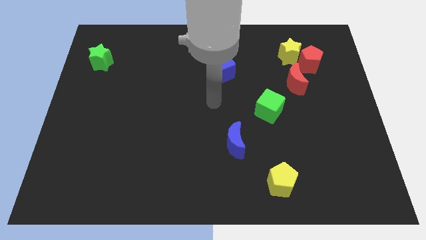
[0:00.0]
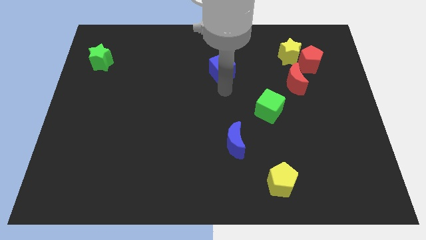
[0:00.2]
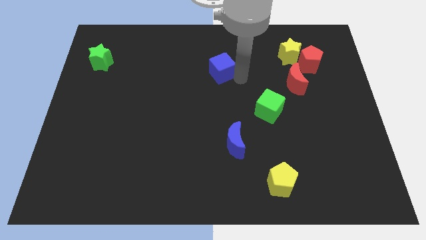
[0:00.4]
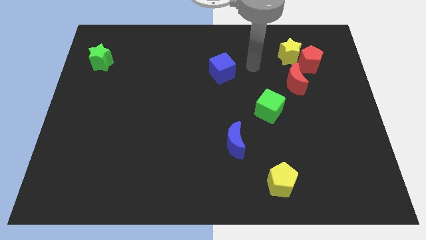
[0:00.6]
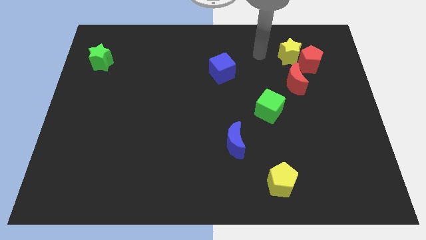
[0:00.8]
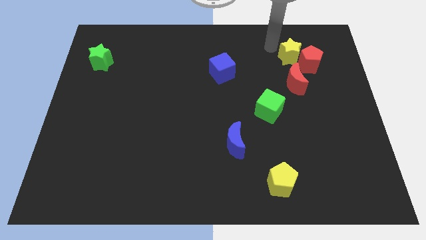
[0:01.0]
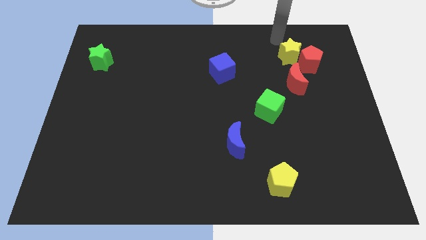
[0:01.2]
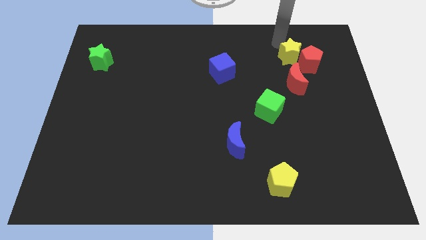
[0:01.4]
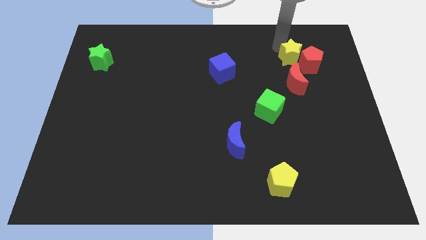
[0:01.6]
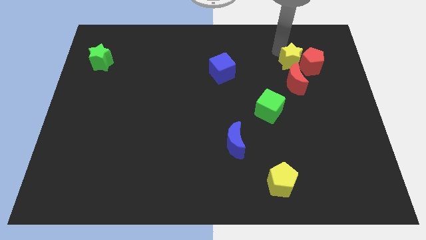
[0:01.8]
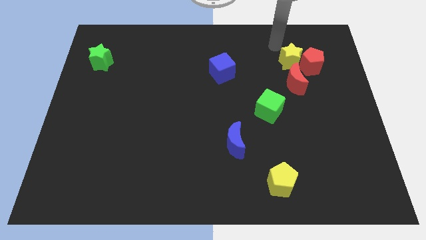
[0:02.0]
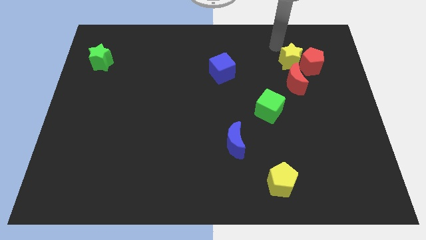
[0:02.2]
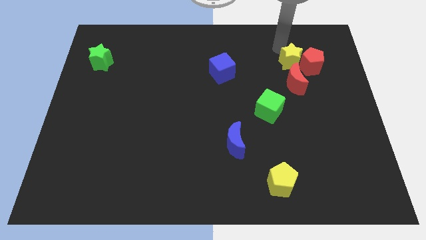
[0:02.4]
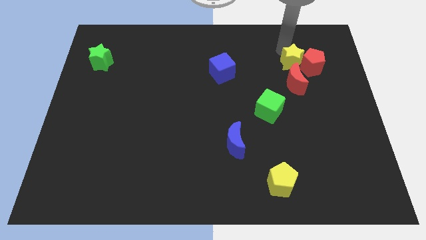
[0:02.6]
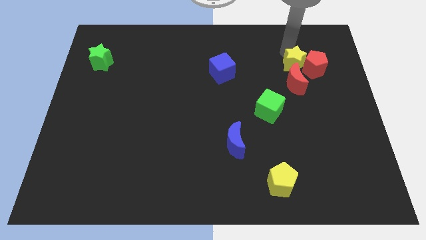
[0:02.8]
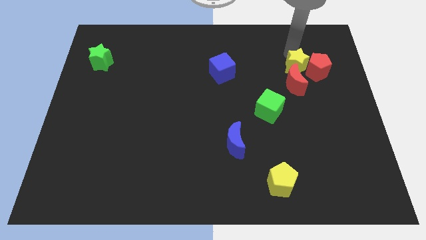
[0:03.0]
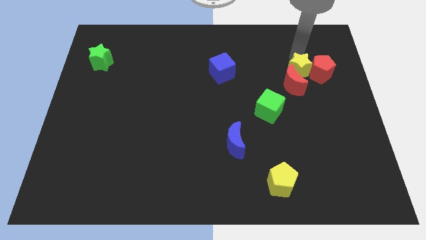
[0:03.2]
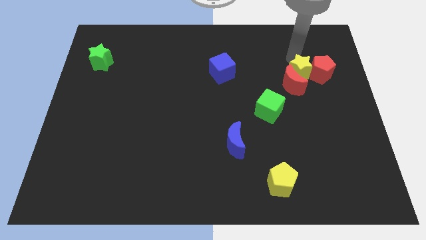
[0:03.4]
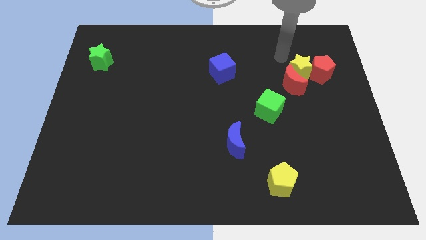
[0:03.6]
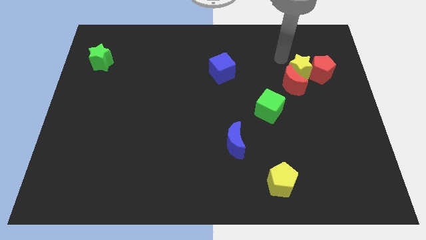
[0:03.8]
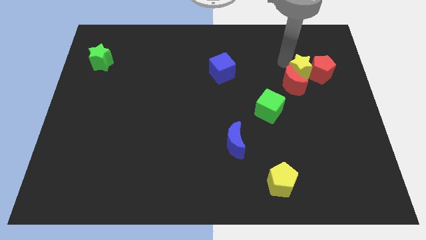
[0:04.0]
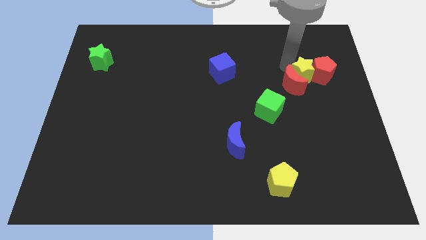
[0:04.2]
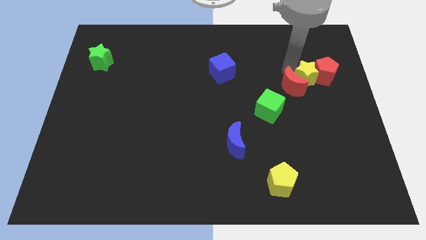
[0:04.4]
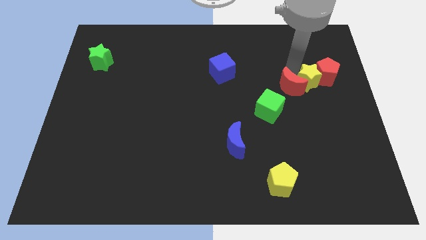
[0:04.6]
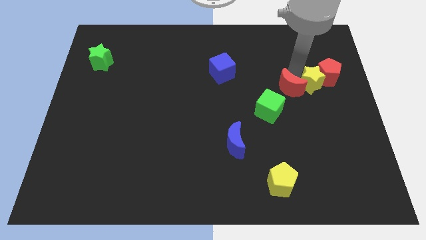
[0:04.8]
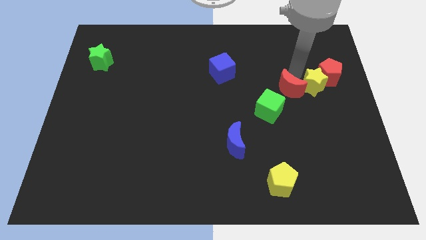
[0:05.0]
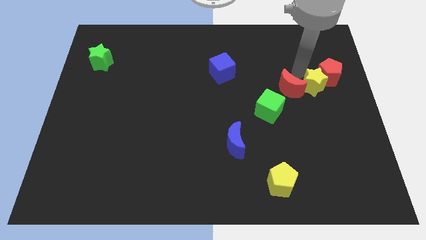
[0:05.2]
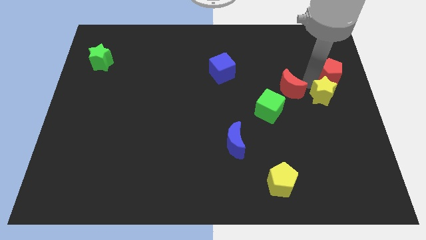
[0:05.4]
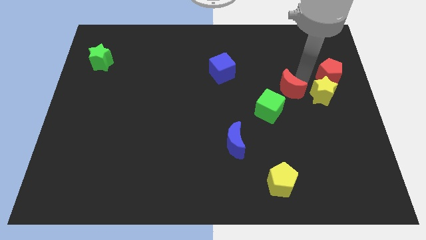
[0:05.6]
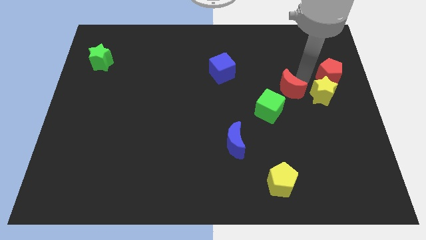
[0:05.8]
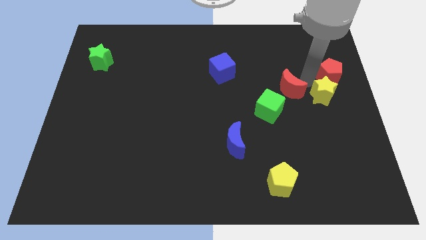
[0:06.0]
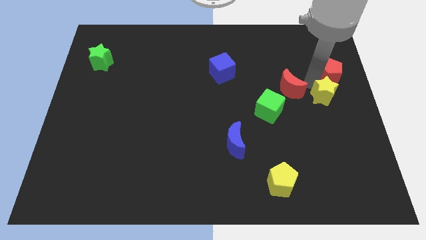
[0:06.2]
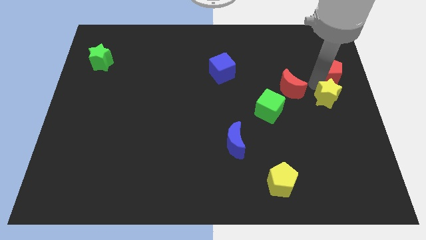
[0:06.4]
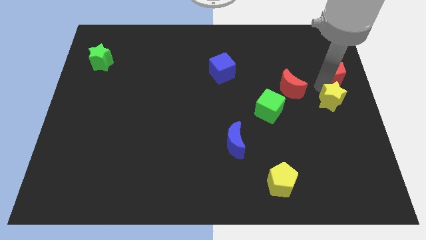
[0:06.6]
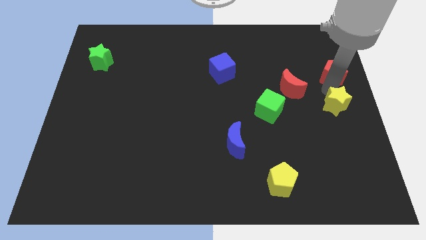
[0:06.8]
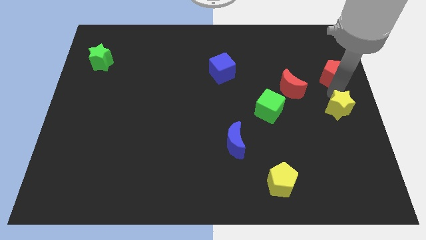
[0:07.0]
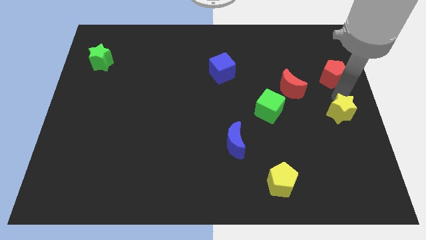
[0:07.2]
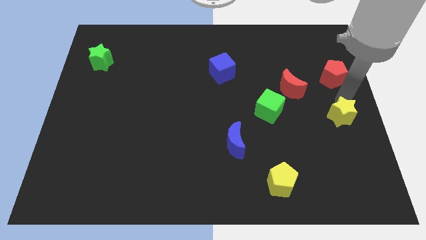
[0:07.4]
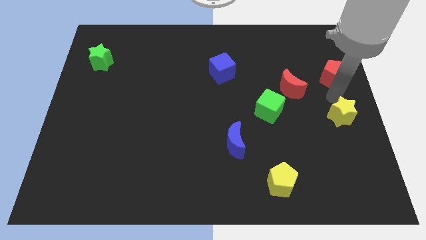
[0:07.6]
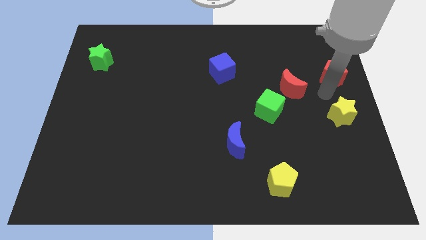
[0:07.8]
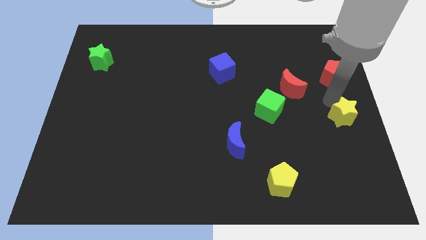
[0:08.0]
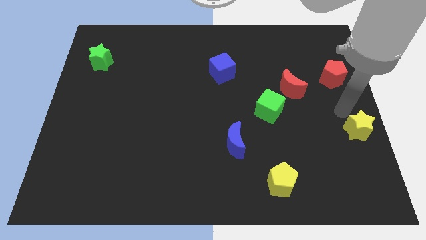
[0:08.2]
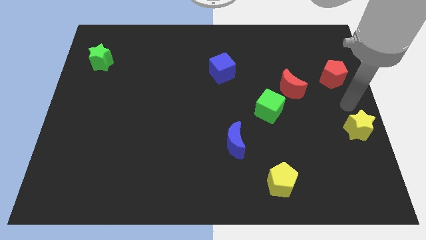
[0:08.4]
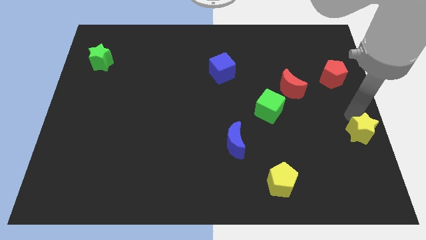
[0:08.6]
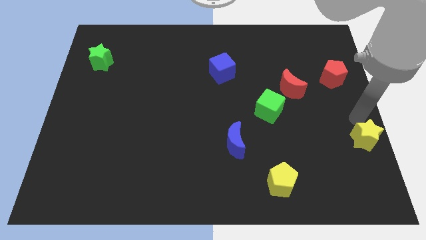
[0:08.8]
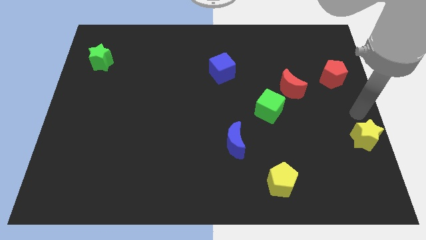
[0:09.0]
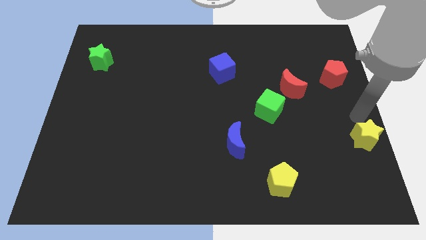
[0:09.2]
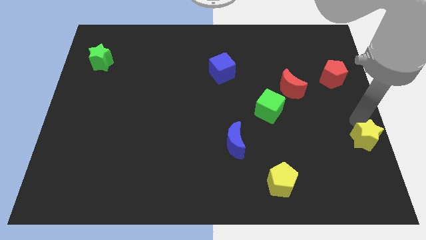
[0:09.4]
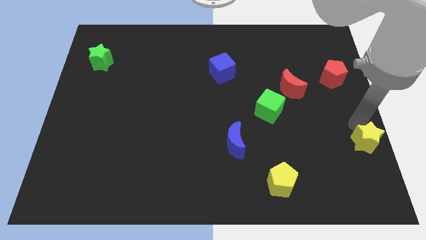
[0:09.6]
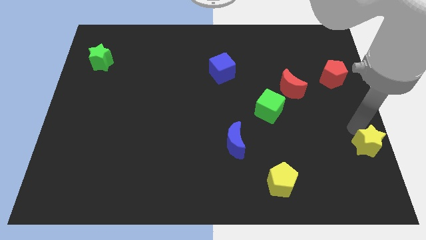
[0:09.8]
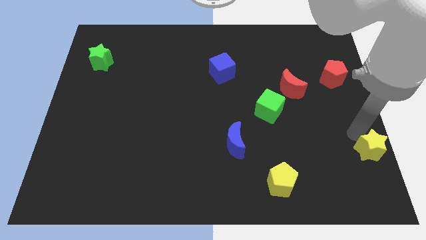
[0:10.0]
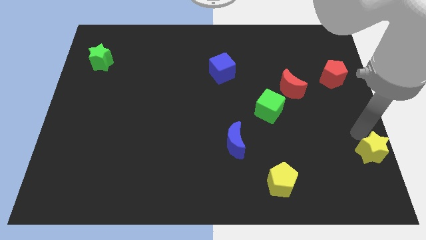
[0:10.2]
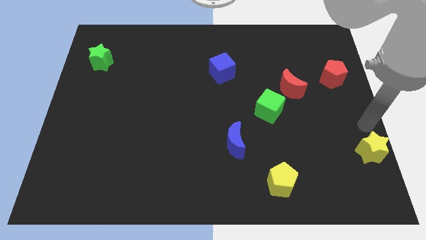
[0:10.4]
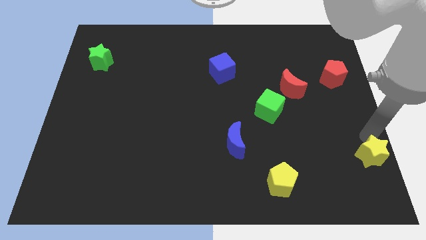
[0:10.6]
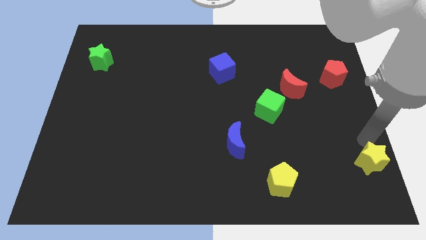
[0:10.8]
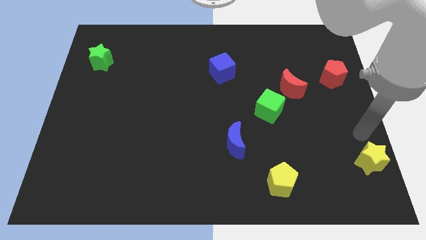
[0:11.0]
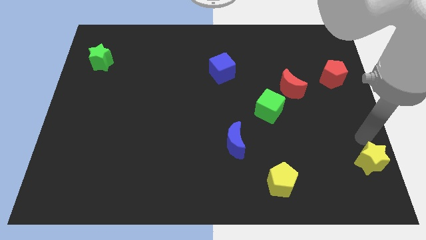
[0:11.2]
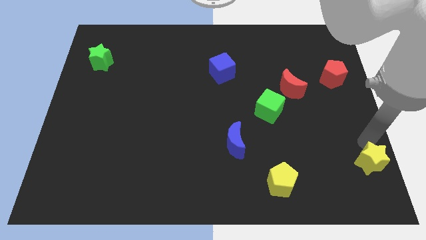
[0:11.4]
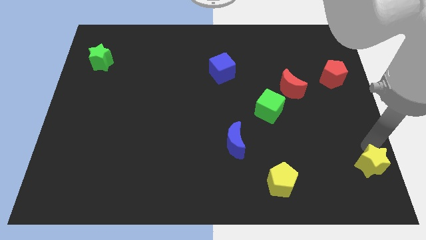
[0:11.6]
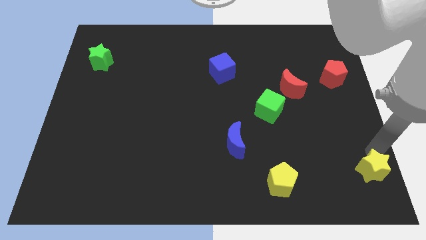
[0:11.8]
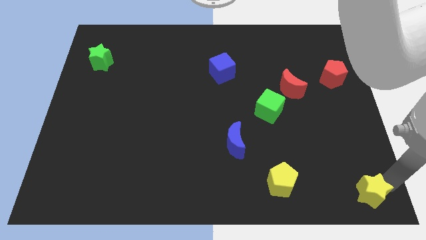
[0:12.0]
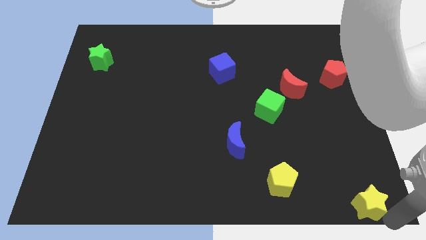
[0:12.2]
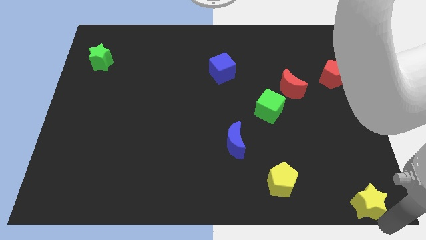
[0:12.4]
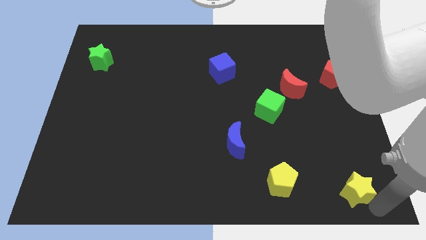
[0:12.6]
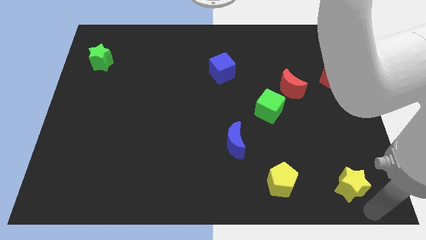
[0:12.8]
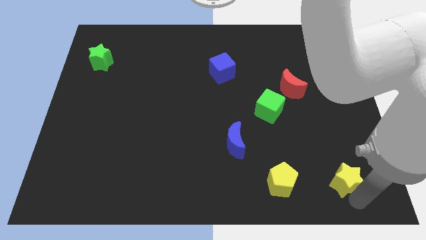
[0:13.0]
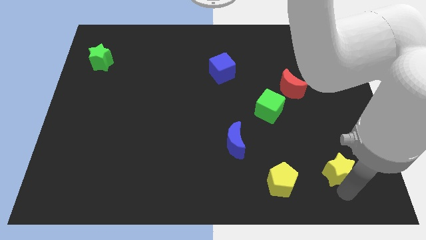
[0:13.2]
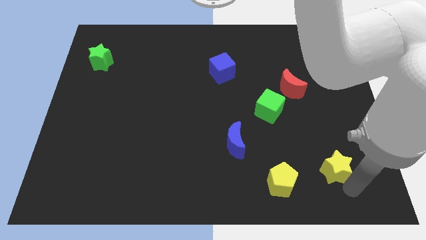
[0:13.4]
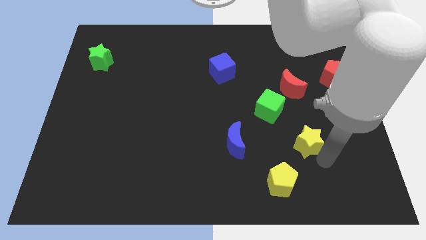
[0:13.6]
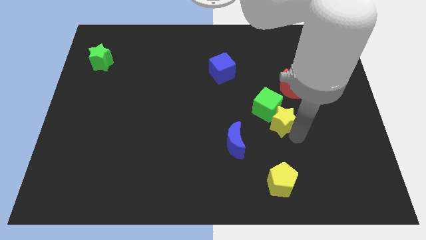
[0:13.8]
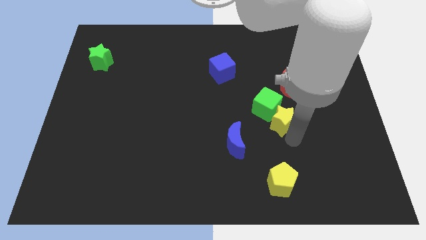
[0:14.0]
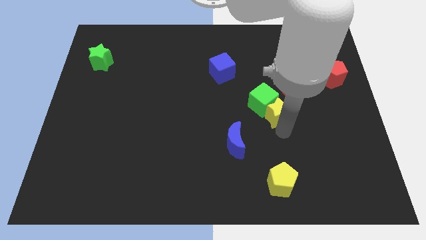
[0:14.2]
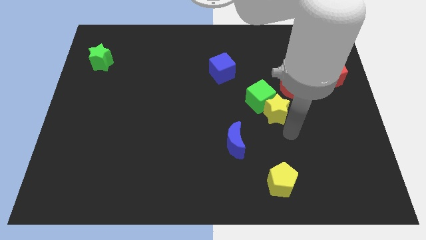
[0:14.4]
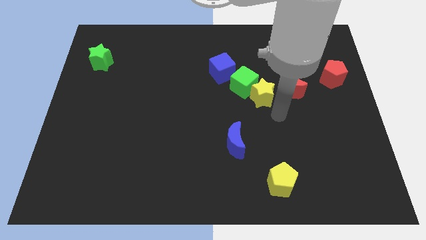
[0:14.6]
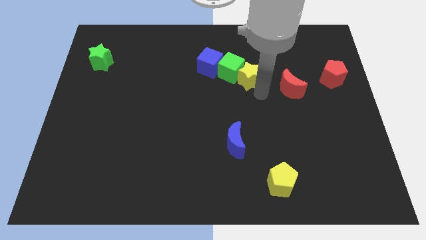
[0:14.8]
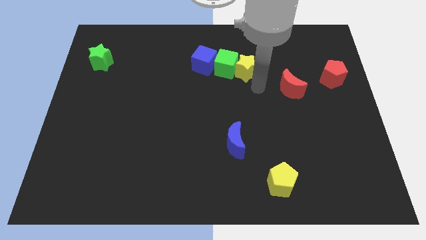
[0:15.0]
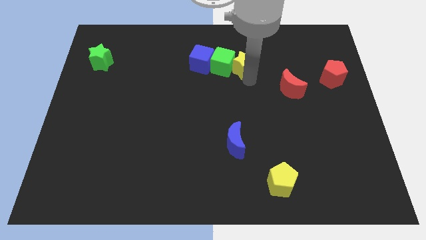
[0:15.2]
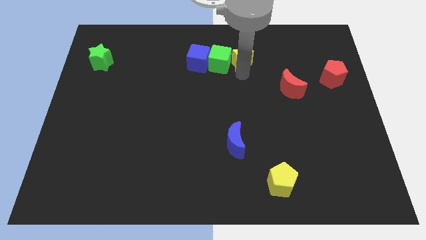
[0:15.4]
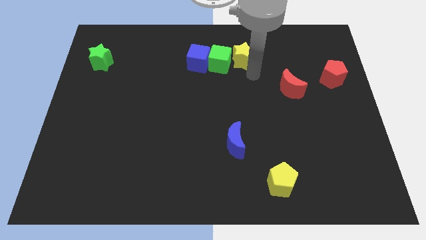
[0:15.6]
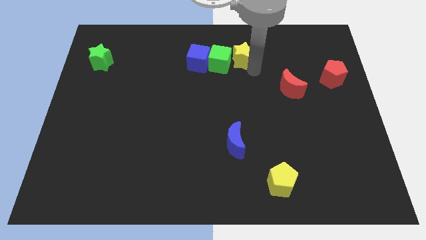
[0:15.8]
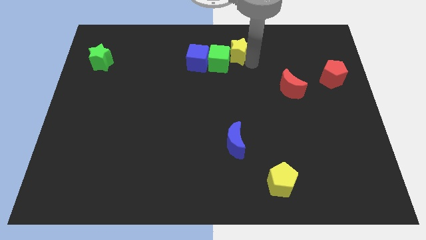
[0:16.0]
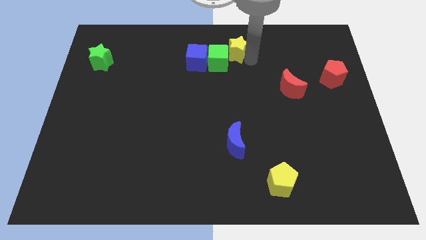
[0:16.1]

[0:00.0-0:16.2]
push the yellow star to the towards your base
